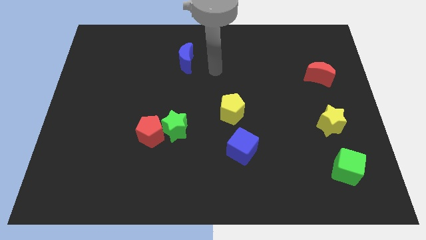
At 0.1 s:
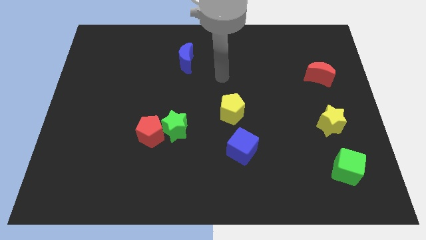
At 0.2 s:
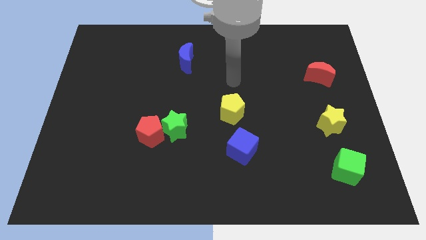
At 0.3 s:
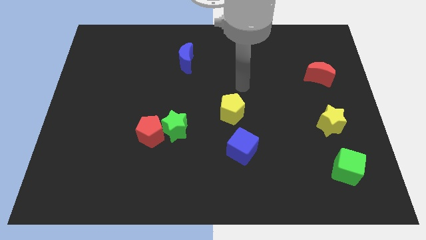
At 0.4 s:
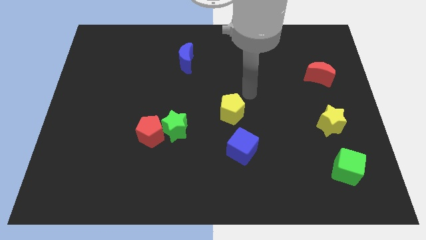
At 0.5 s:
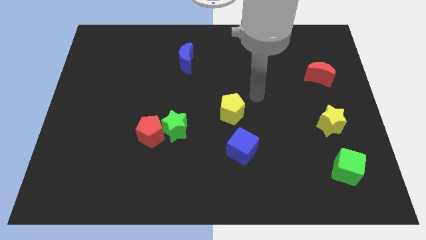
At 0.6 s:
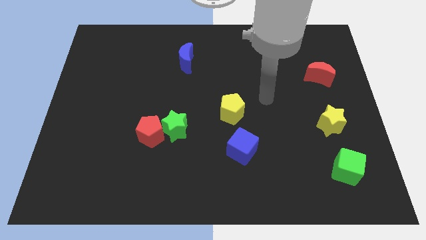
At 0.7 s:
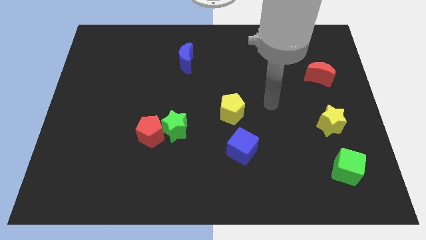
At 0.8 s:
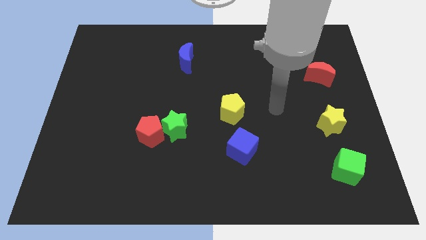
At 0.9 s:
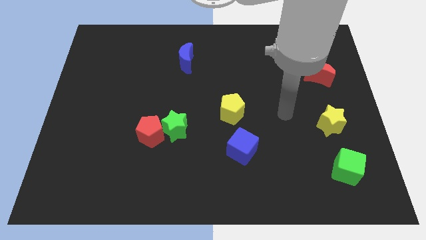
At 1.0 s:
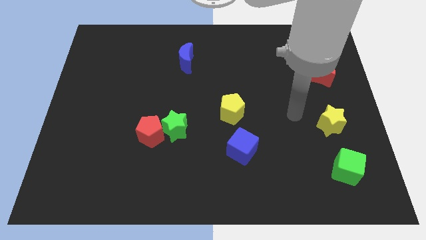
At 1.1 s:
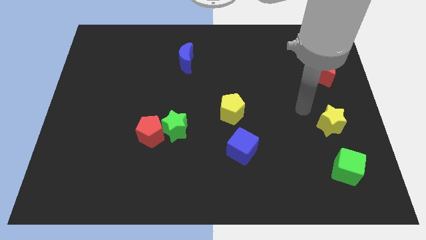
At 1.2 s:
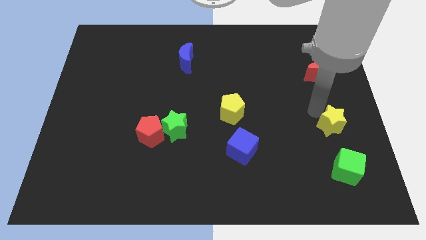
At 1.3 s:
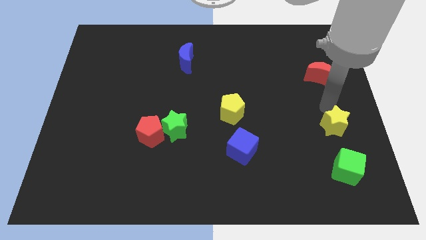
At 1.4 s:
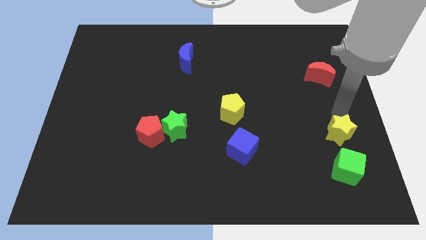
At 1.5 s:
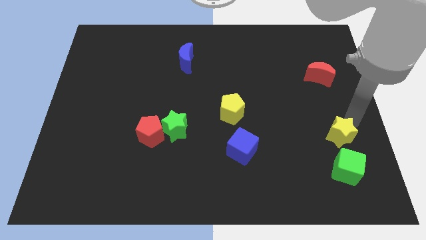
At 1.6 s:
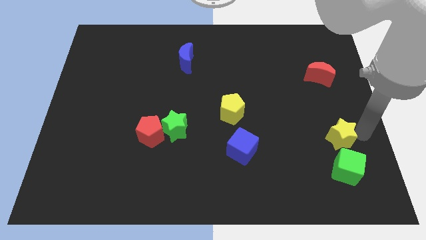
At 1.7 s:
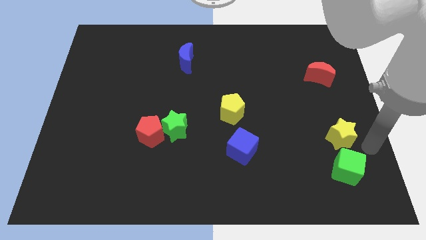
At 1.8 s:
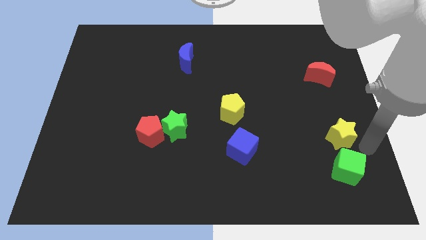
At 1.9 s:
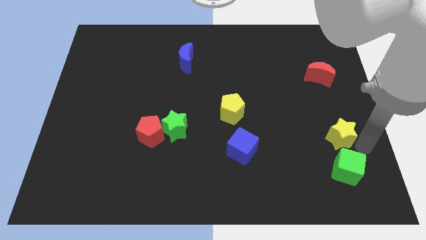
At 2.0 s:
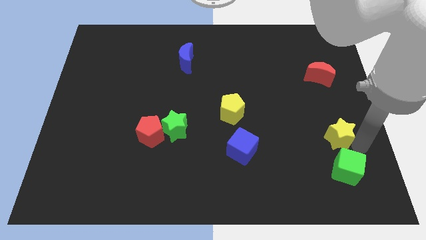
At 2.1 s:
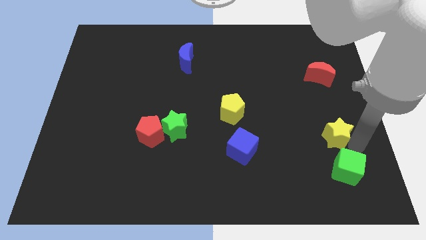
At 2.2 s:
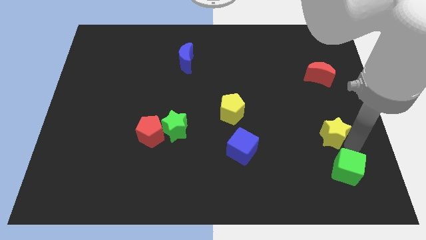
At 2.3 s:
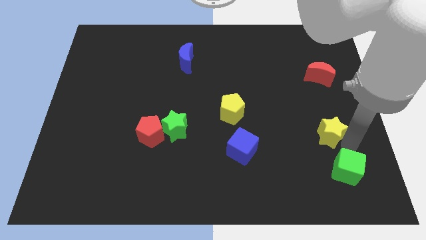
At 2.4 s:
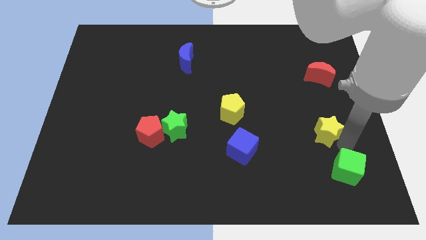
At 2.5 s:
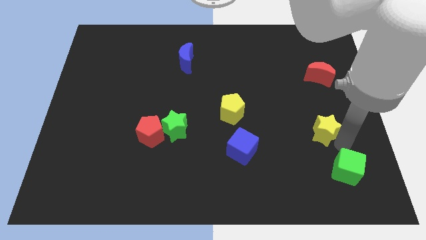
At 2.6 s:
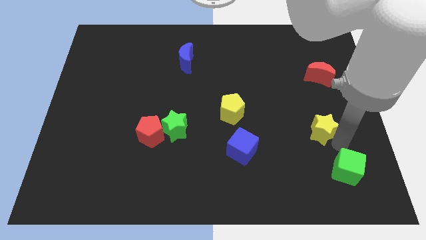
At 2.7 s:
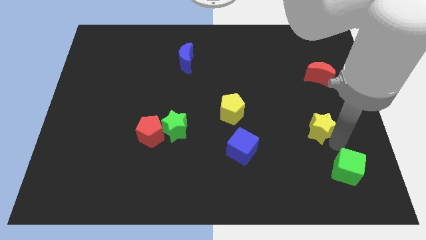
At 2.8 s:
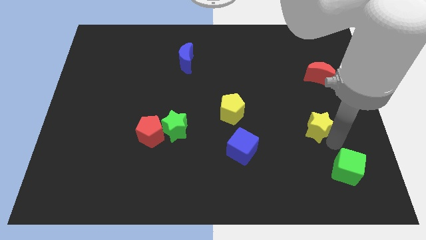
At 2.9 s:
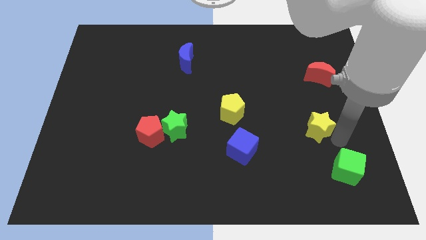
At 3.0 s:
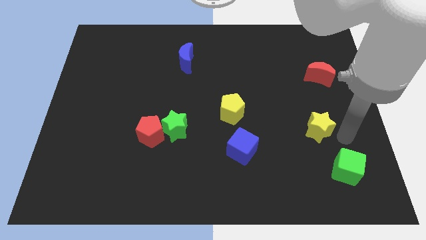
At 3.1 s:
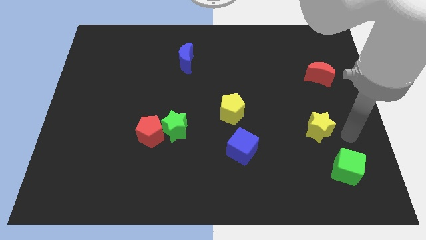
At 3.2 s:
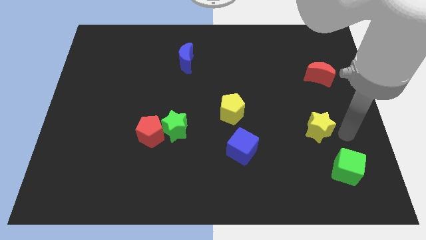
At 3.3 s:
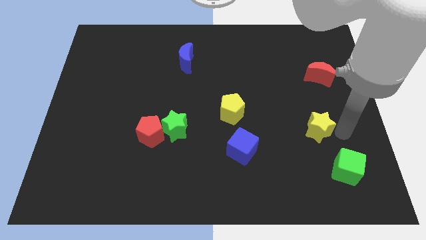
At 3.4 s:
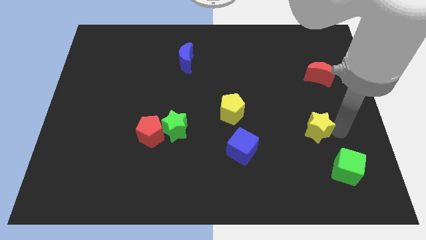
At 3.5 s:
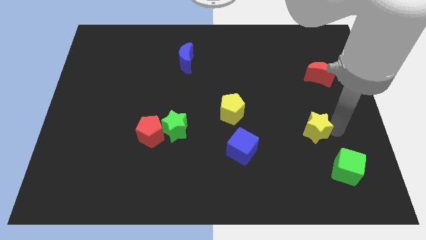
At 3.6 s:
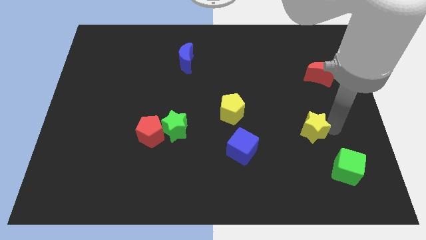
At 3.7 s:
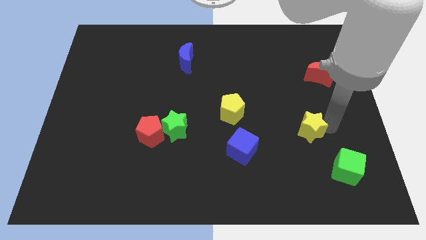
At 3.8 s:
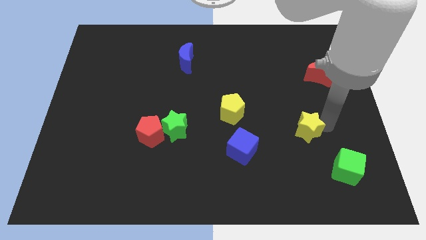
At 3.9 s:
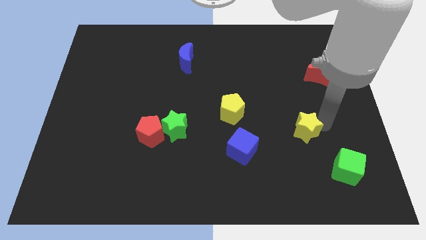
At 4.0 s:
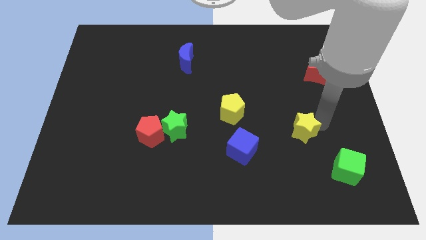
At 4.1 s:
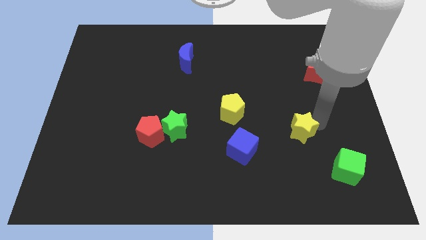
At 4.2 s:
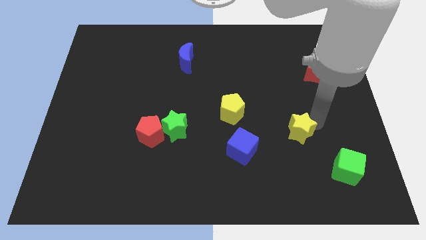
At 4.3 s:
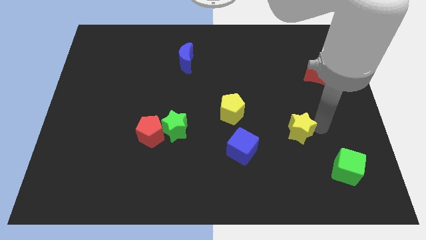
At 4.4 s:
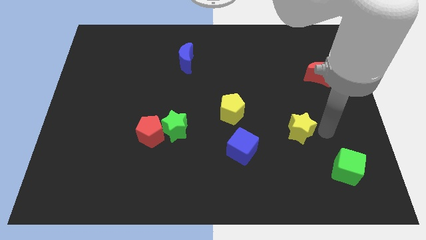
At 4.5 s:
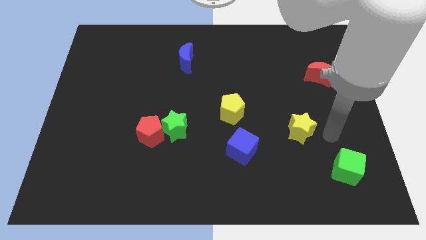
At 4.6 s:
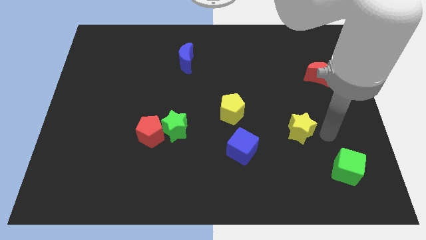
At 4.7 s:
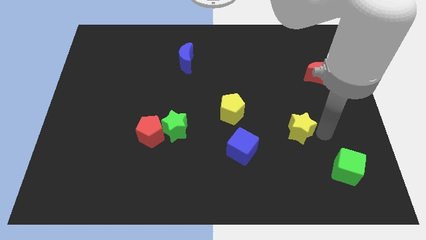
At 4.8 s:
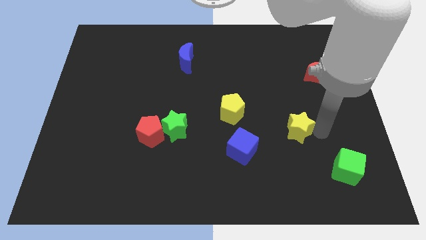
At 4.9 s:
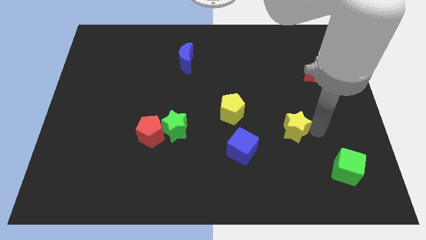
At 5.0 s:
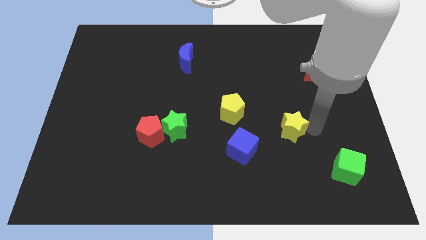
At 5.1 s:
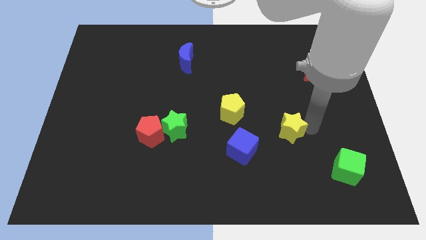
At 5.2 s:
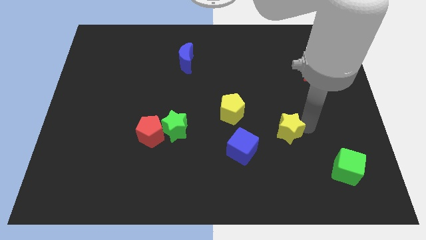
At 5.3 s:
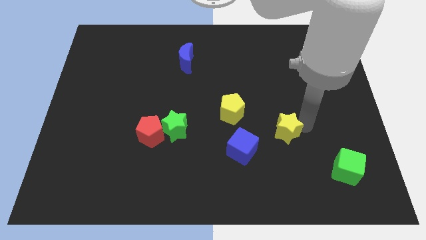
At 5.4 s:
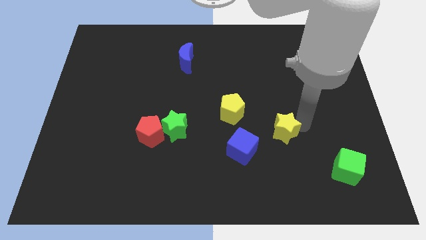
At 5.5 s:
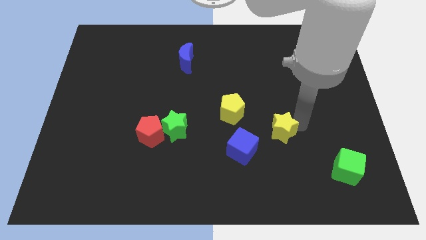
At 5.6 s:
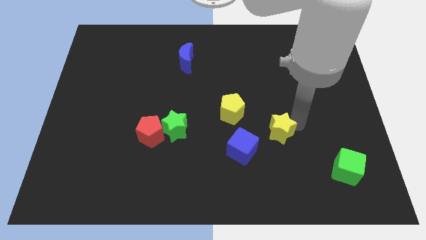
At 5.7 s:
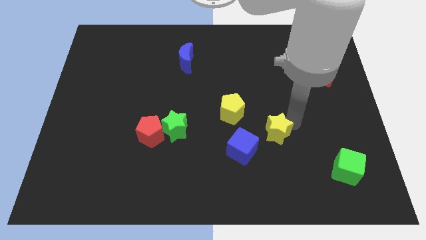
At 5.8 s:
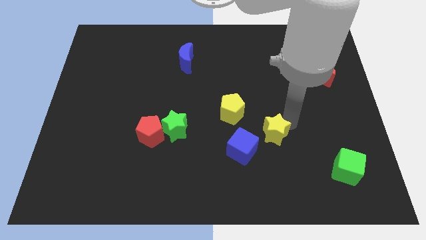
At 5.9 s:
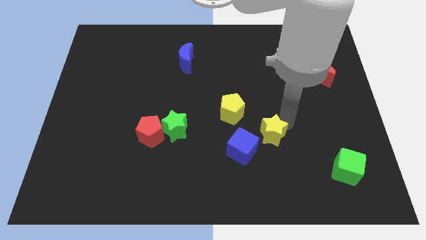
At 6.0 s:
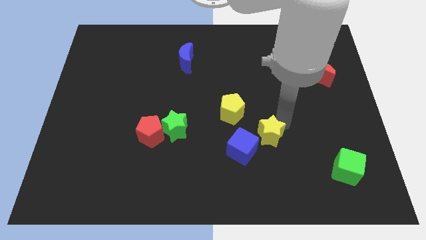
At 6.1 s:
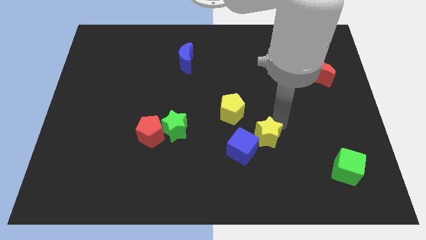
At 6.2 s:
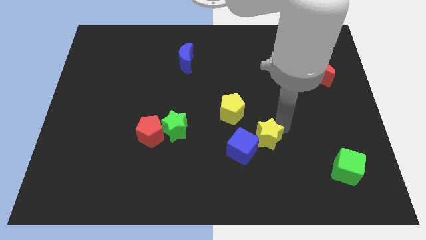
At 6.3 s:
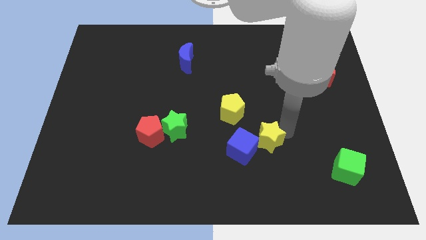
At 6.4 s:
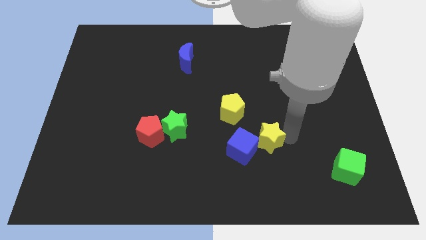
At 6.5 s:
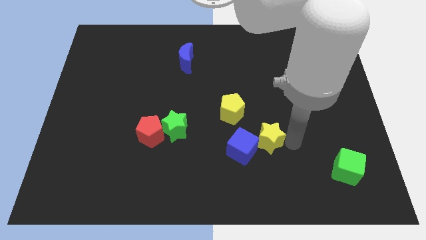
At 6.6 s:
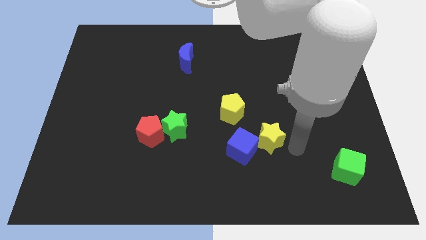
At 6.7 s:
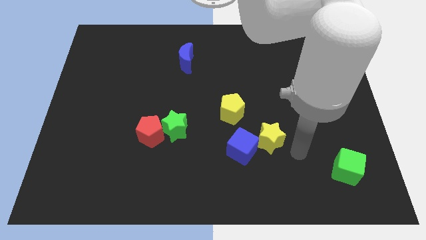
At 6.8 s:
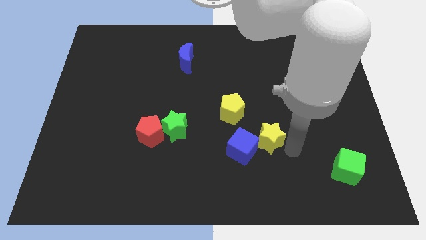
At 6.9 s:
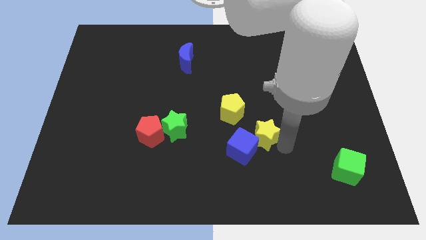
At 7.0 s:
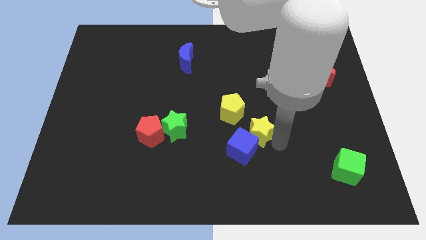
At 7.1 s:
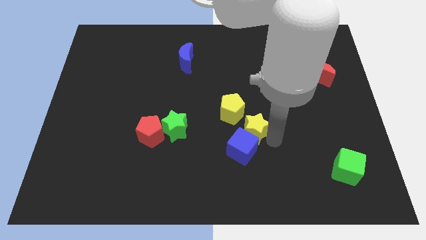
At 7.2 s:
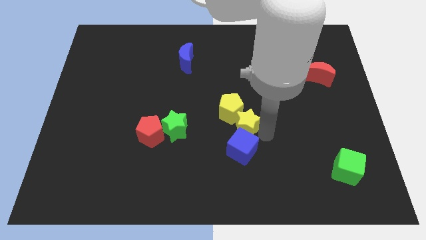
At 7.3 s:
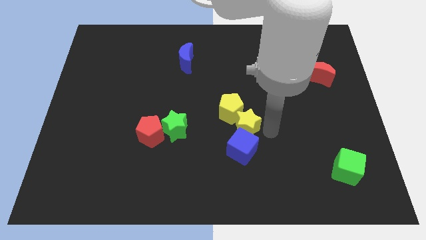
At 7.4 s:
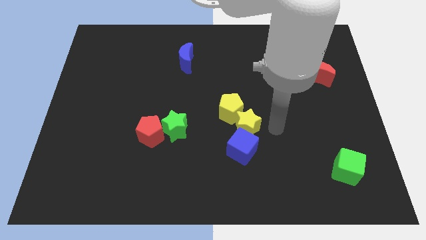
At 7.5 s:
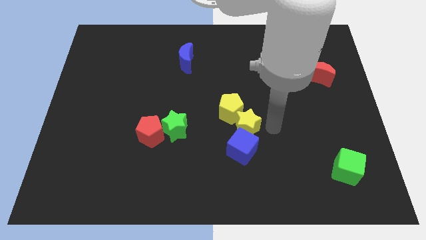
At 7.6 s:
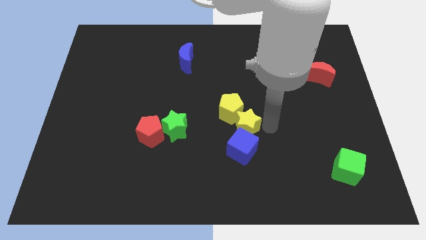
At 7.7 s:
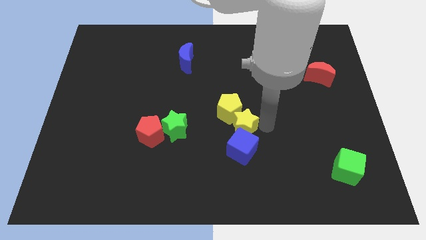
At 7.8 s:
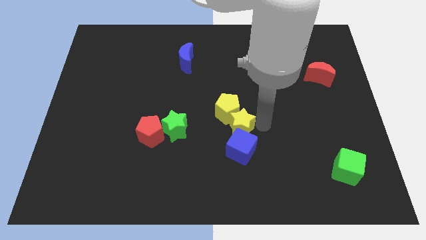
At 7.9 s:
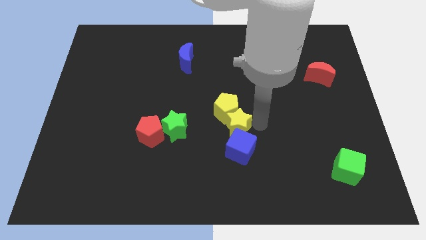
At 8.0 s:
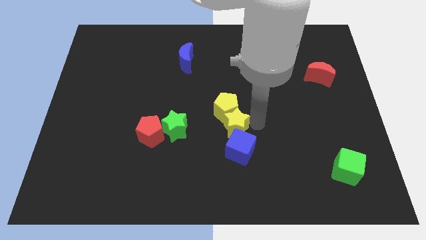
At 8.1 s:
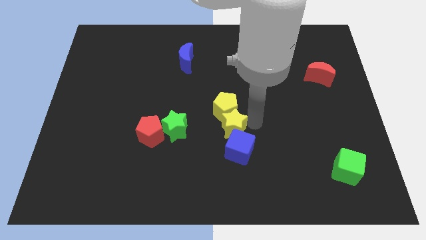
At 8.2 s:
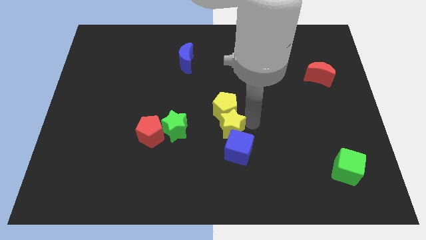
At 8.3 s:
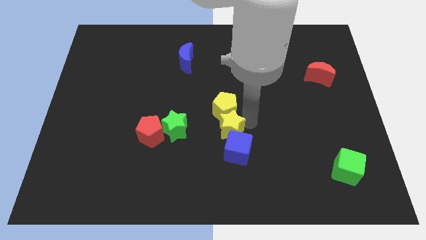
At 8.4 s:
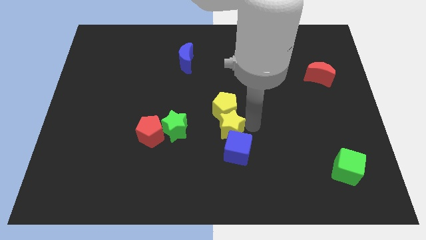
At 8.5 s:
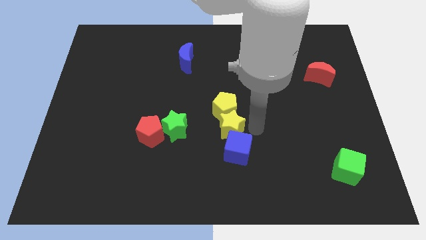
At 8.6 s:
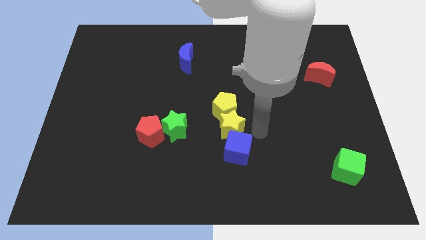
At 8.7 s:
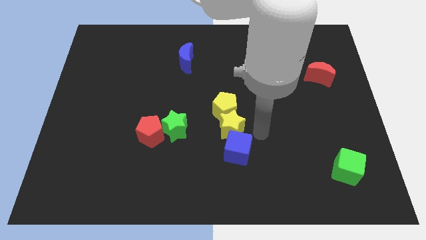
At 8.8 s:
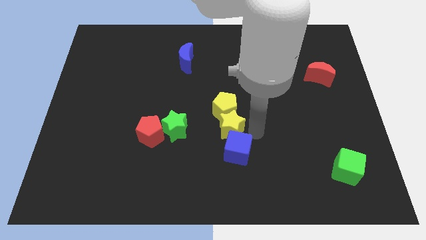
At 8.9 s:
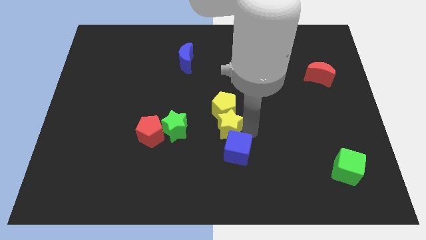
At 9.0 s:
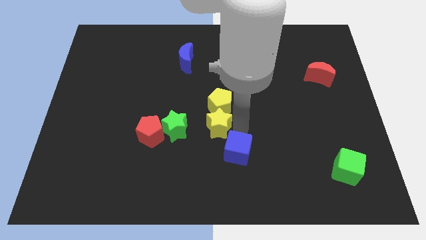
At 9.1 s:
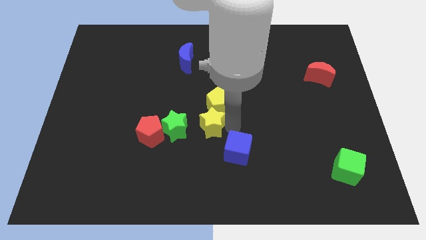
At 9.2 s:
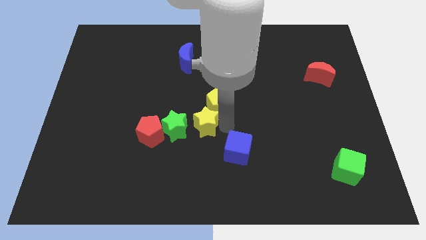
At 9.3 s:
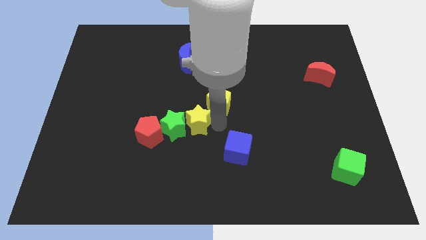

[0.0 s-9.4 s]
move the yellow star close to the green star
